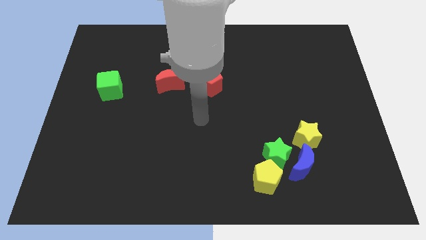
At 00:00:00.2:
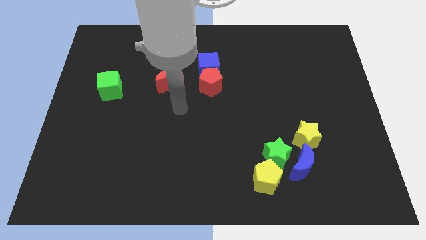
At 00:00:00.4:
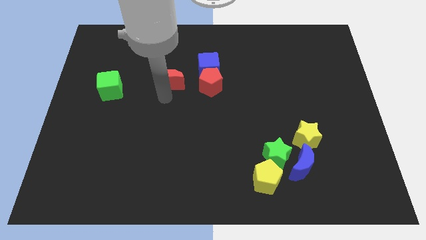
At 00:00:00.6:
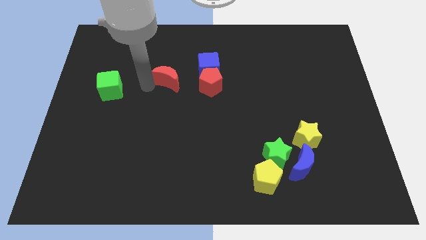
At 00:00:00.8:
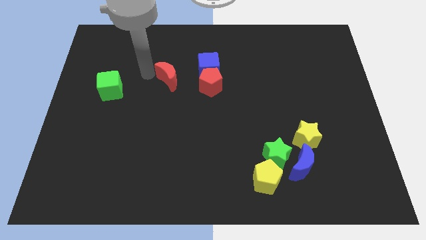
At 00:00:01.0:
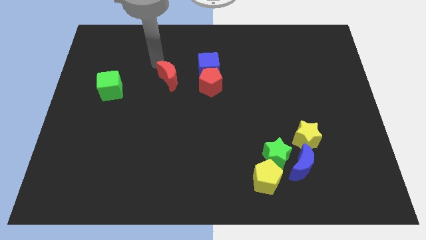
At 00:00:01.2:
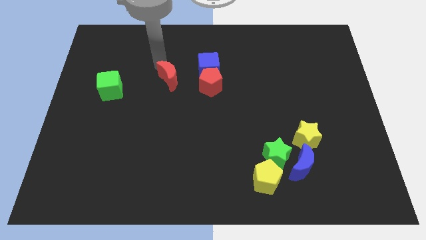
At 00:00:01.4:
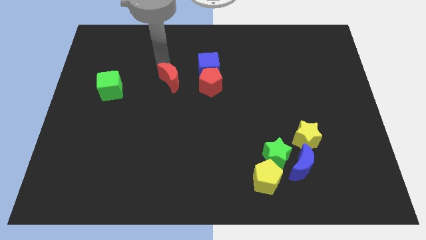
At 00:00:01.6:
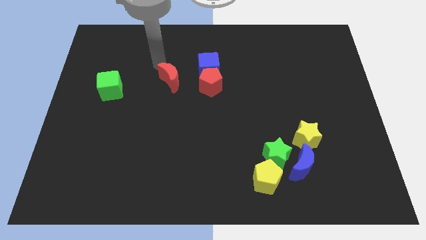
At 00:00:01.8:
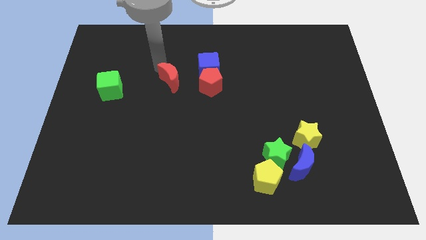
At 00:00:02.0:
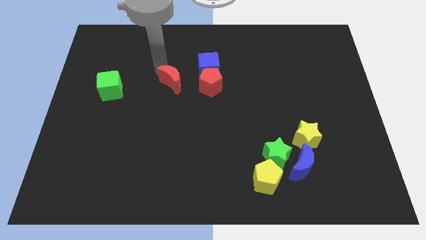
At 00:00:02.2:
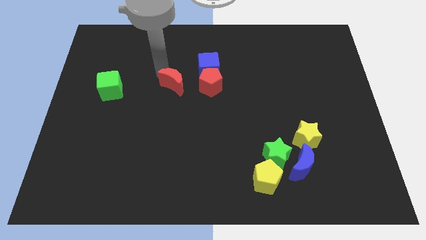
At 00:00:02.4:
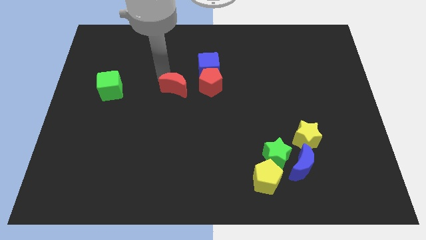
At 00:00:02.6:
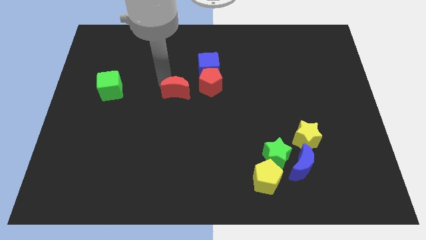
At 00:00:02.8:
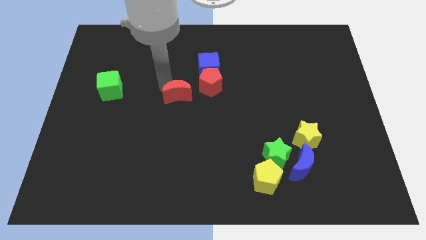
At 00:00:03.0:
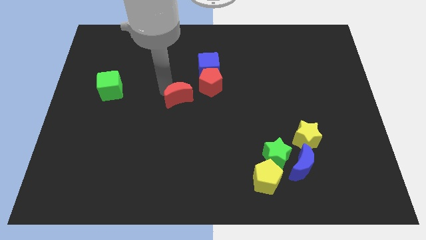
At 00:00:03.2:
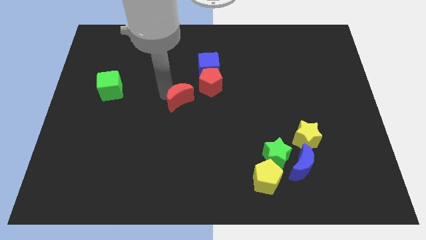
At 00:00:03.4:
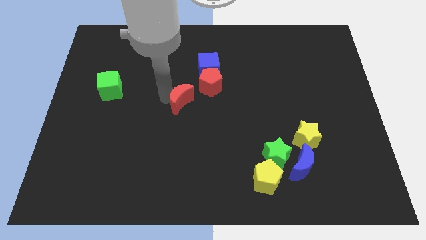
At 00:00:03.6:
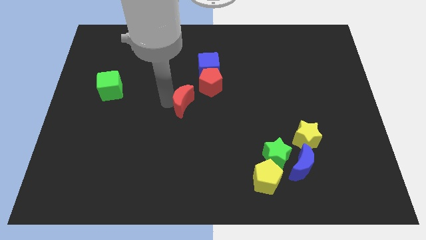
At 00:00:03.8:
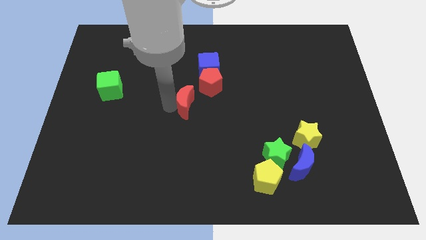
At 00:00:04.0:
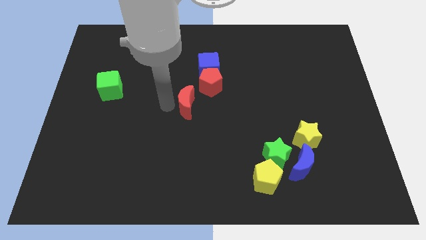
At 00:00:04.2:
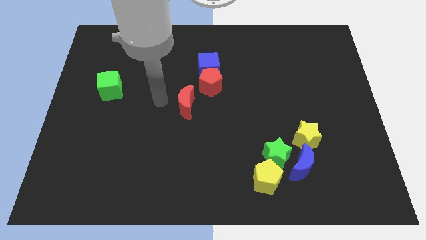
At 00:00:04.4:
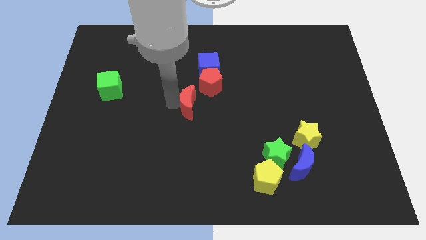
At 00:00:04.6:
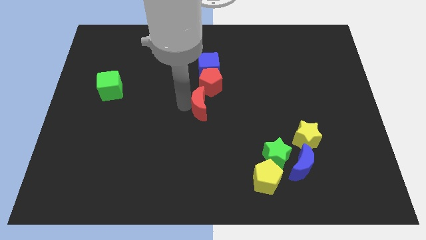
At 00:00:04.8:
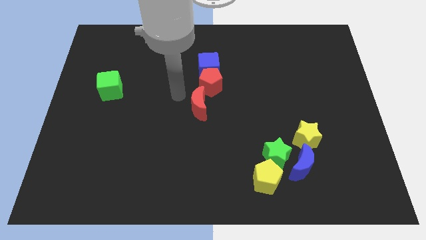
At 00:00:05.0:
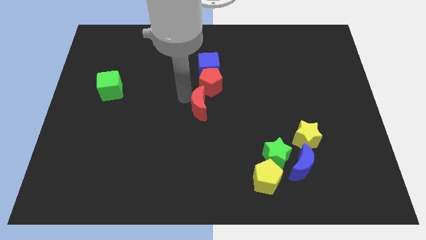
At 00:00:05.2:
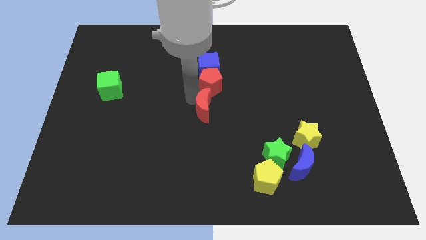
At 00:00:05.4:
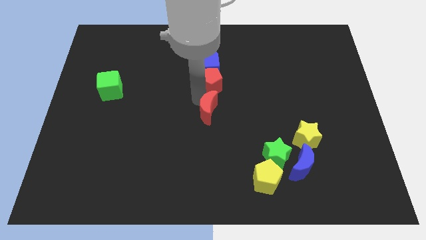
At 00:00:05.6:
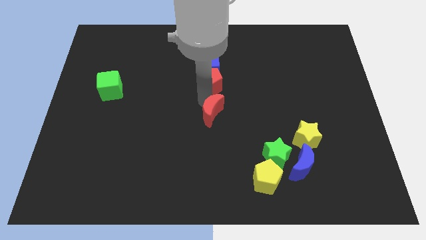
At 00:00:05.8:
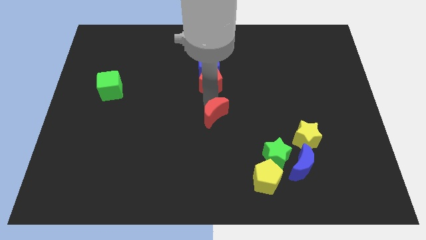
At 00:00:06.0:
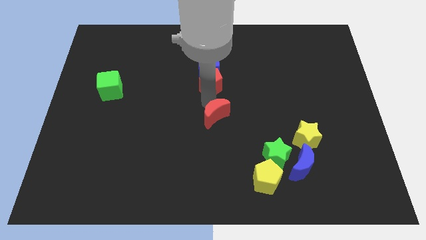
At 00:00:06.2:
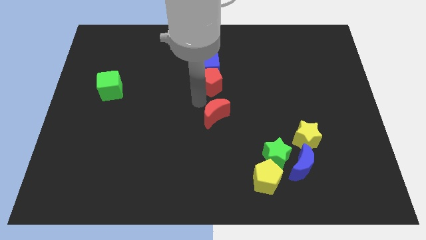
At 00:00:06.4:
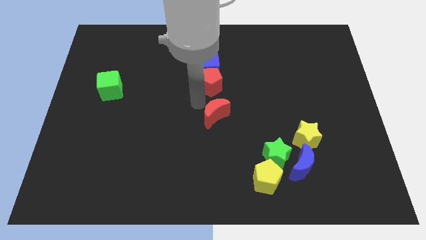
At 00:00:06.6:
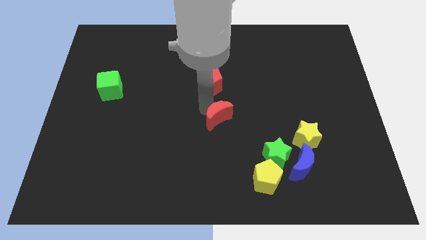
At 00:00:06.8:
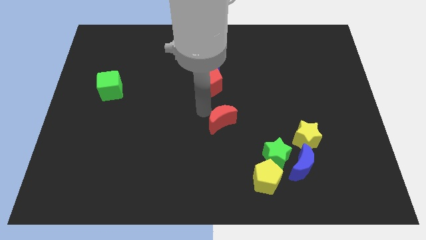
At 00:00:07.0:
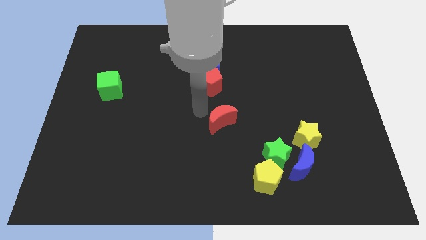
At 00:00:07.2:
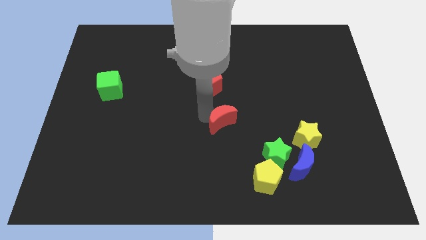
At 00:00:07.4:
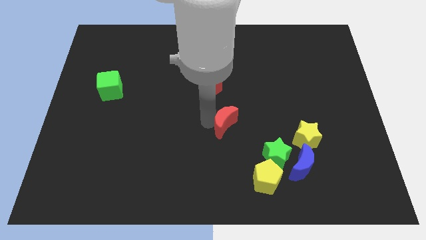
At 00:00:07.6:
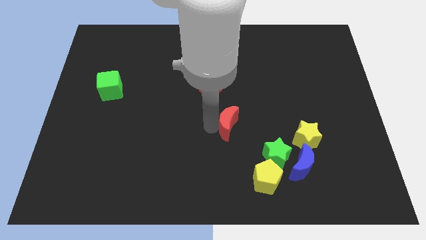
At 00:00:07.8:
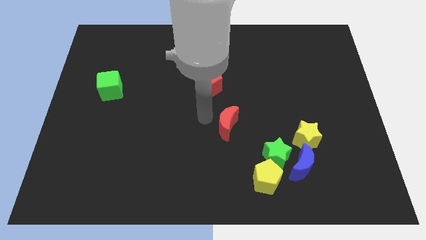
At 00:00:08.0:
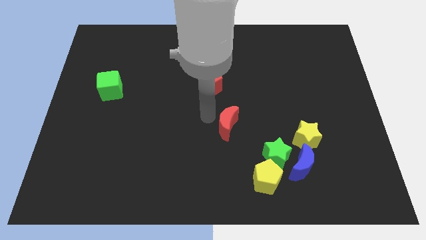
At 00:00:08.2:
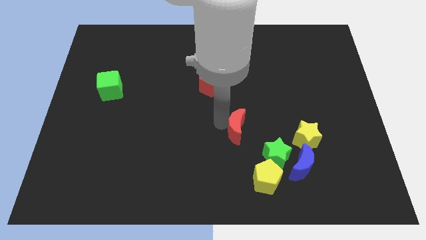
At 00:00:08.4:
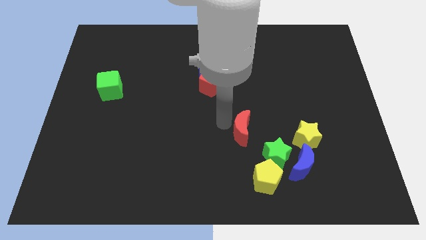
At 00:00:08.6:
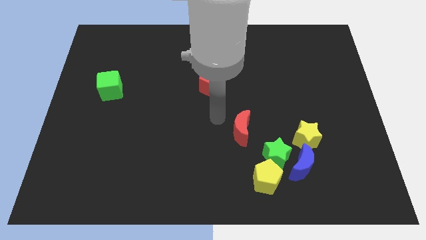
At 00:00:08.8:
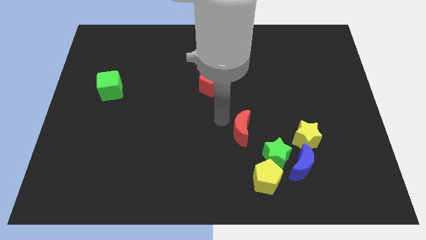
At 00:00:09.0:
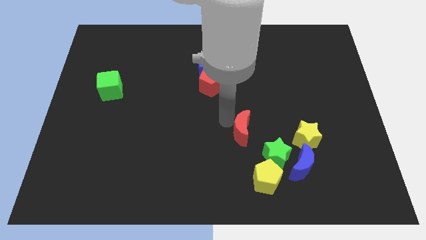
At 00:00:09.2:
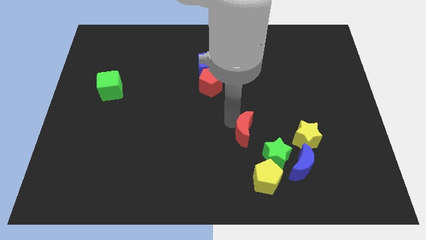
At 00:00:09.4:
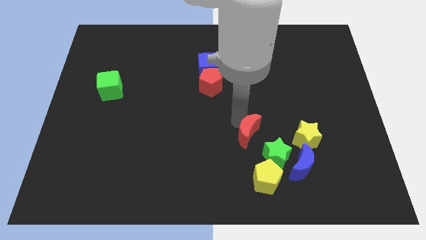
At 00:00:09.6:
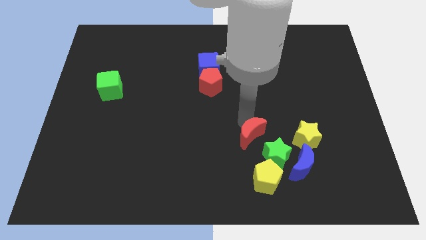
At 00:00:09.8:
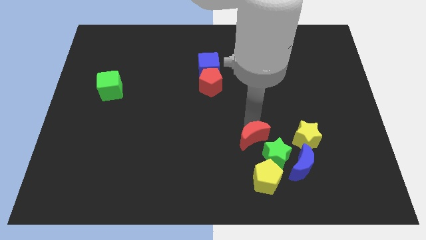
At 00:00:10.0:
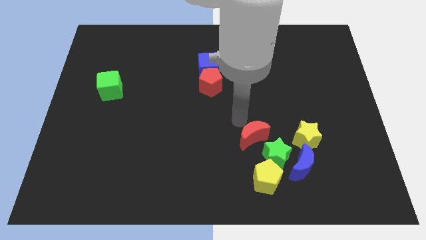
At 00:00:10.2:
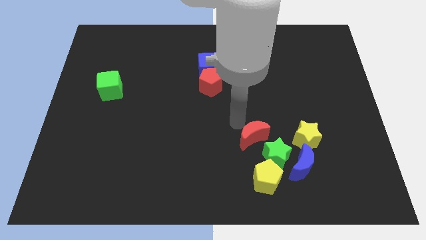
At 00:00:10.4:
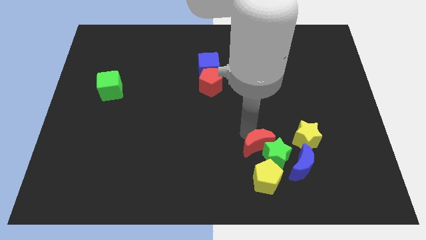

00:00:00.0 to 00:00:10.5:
put the red moon next to the green star

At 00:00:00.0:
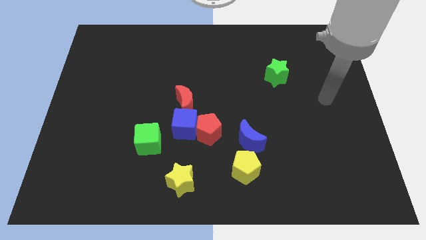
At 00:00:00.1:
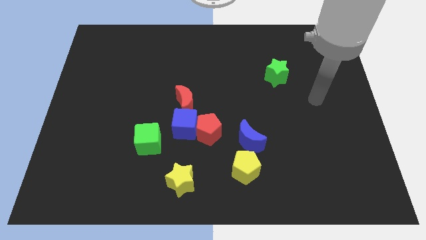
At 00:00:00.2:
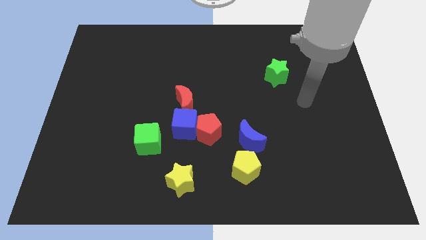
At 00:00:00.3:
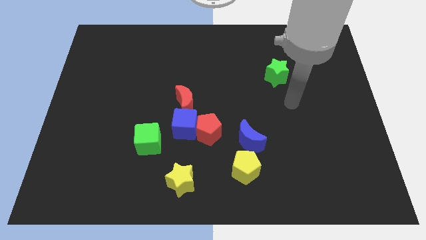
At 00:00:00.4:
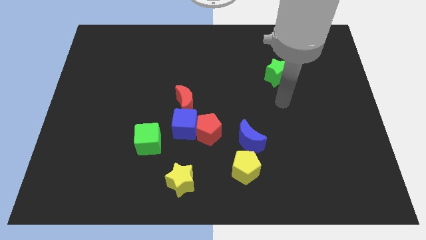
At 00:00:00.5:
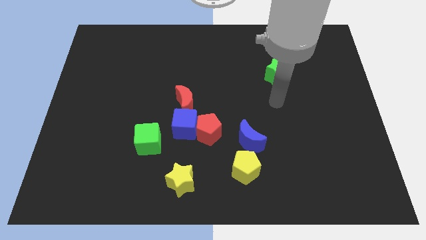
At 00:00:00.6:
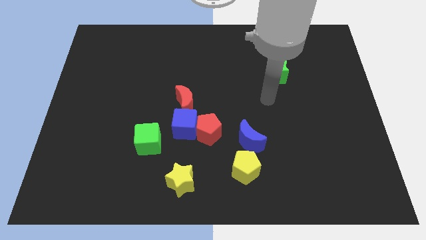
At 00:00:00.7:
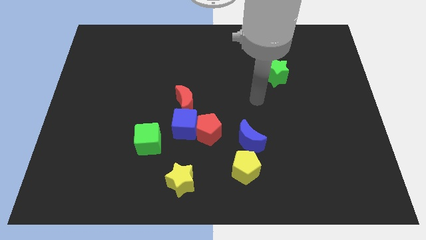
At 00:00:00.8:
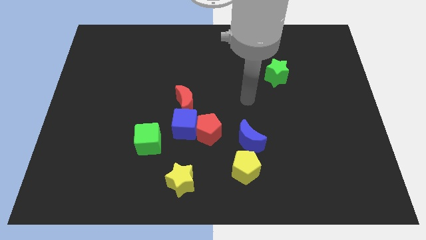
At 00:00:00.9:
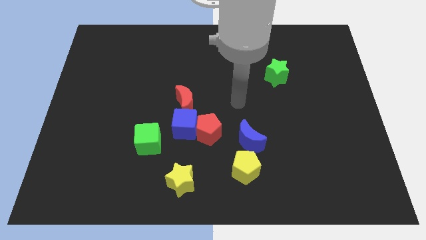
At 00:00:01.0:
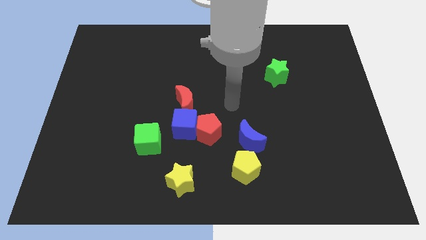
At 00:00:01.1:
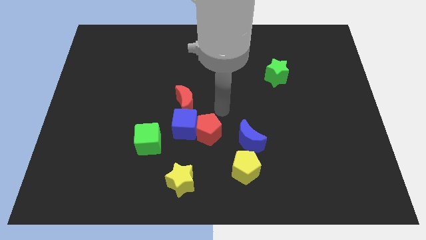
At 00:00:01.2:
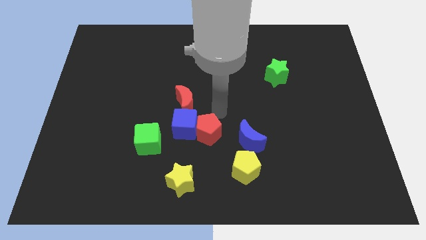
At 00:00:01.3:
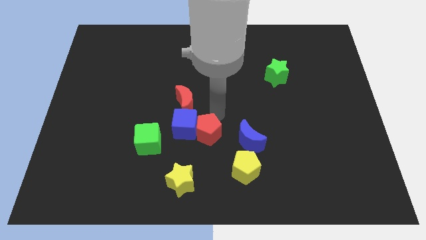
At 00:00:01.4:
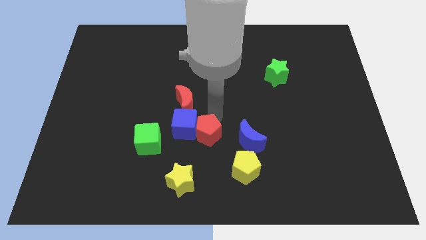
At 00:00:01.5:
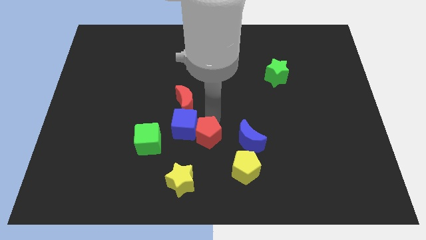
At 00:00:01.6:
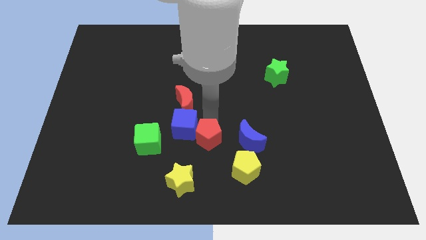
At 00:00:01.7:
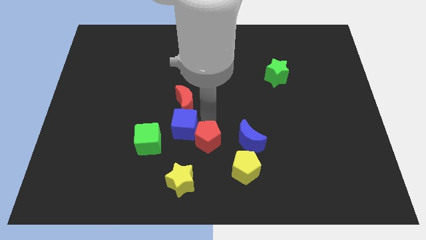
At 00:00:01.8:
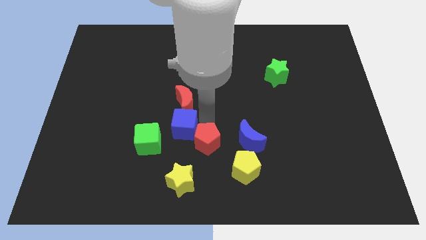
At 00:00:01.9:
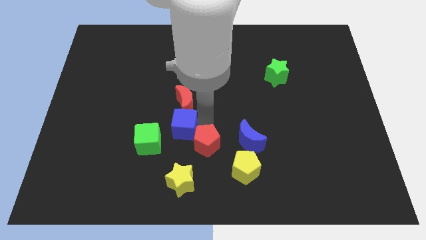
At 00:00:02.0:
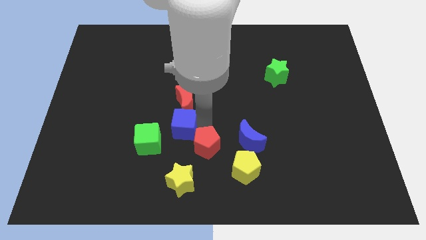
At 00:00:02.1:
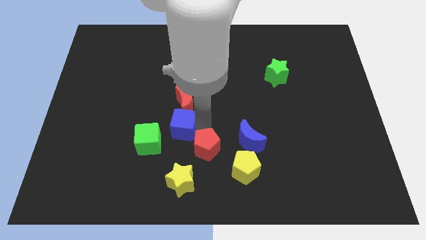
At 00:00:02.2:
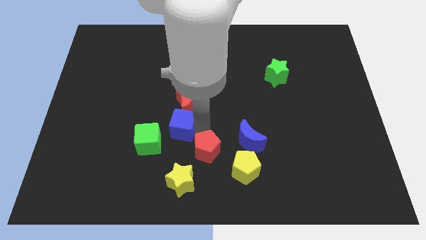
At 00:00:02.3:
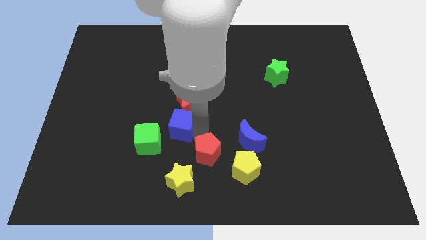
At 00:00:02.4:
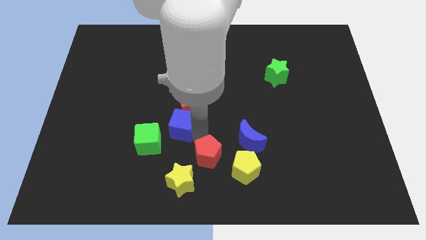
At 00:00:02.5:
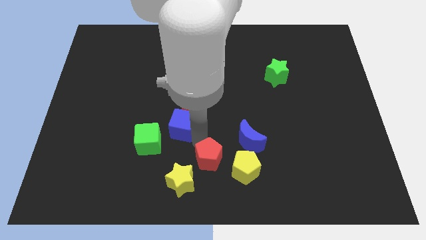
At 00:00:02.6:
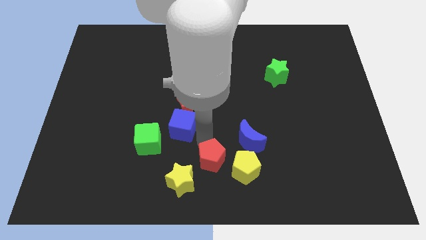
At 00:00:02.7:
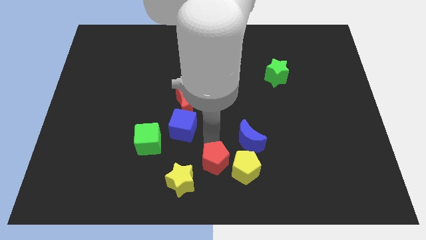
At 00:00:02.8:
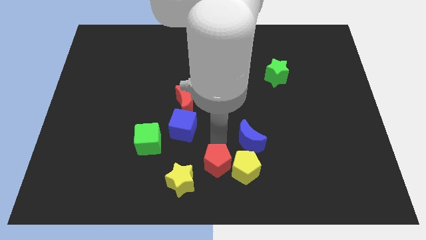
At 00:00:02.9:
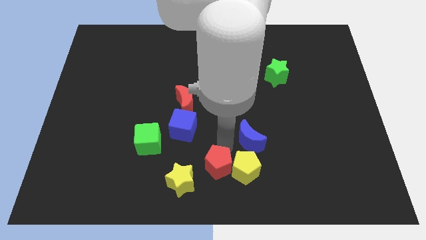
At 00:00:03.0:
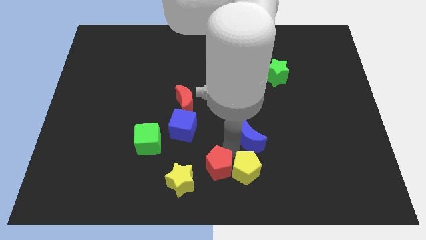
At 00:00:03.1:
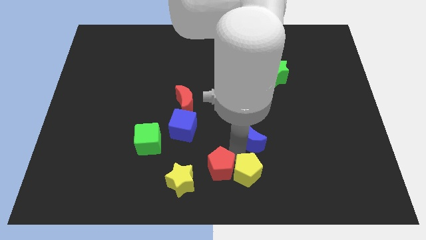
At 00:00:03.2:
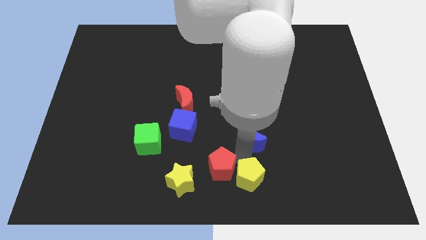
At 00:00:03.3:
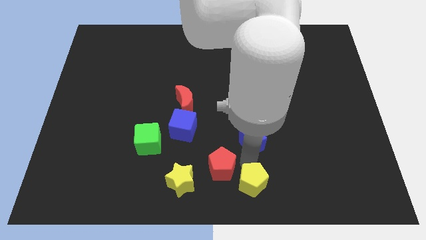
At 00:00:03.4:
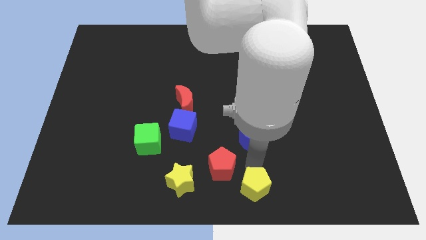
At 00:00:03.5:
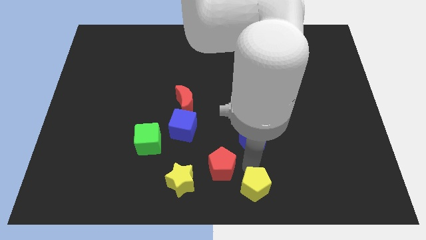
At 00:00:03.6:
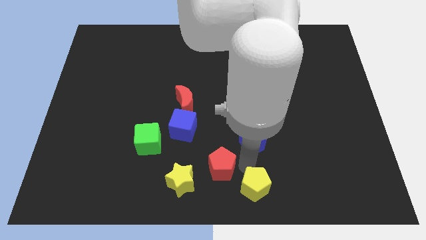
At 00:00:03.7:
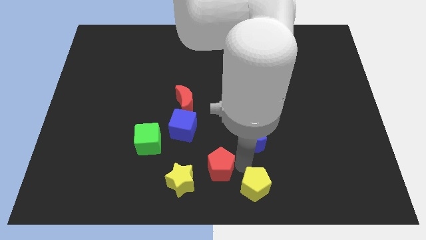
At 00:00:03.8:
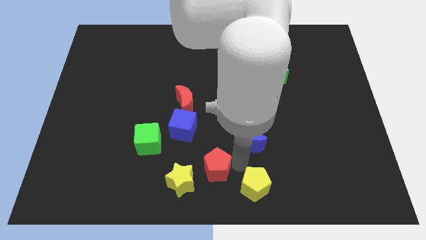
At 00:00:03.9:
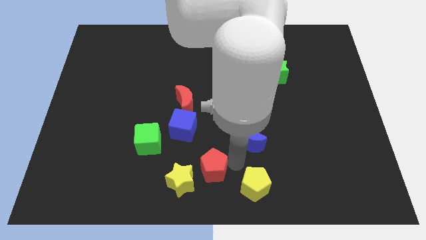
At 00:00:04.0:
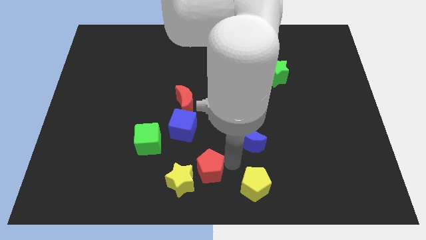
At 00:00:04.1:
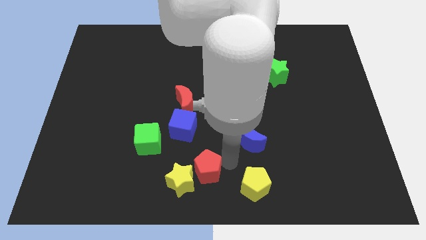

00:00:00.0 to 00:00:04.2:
push the red pentagon towards the yellow star
